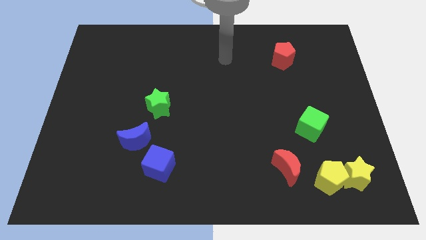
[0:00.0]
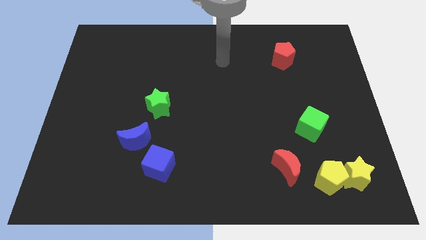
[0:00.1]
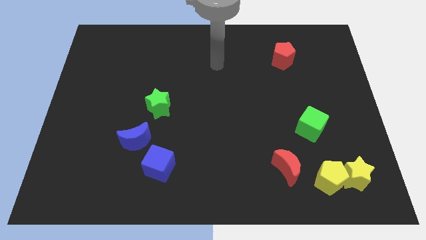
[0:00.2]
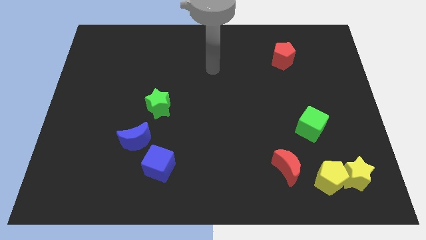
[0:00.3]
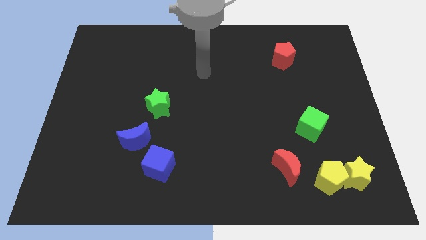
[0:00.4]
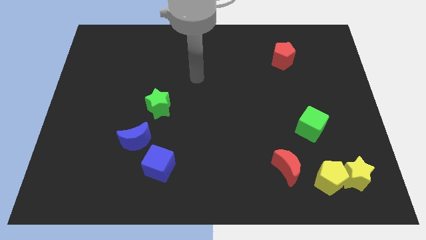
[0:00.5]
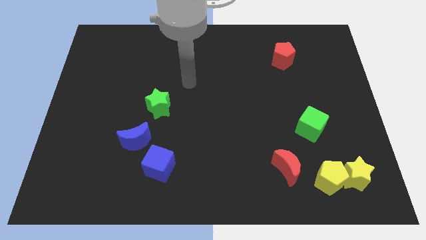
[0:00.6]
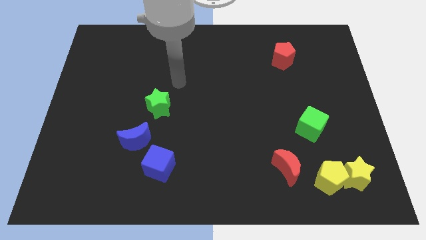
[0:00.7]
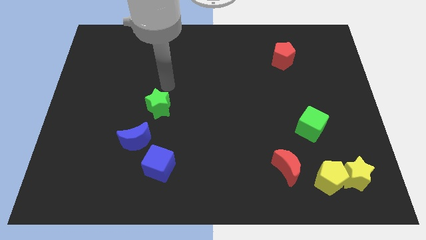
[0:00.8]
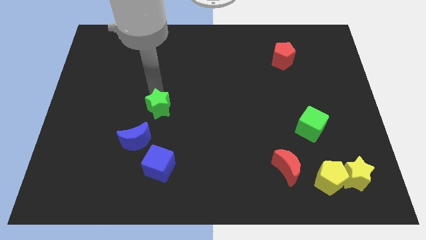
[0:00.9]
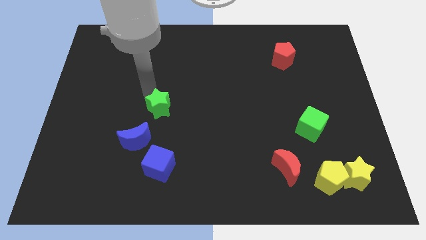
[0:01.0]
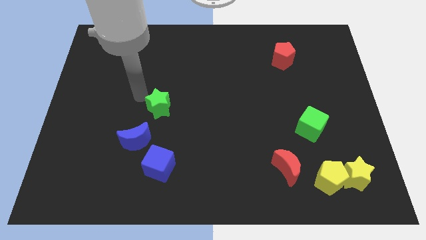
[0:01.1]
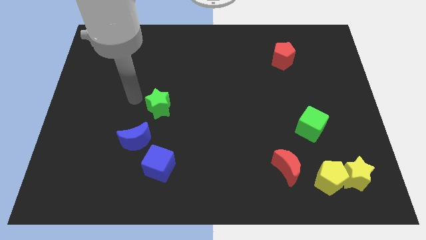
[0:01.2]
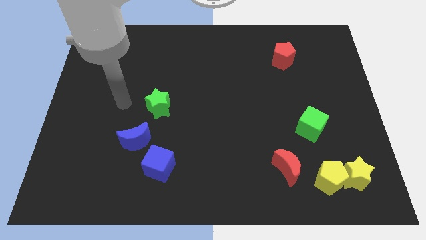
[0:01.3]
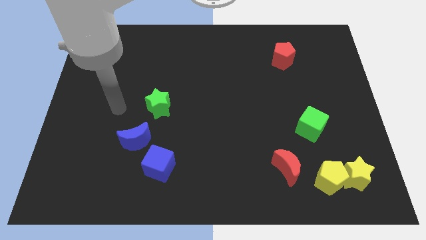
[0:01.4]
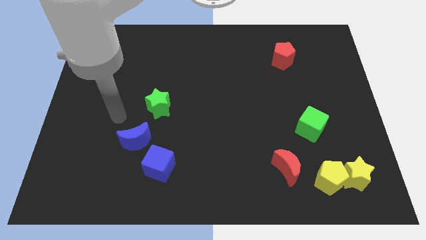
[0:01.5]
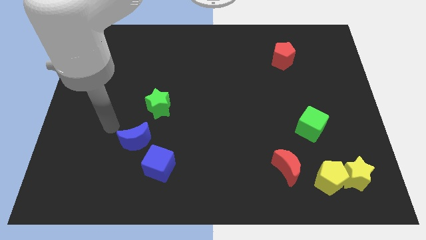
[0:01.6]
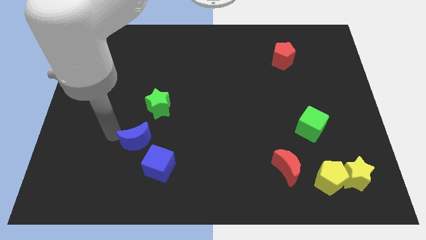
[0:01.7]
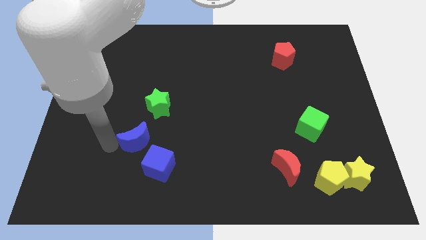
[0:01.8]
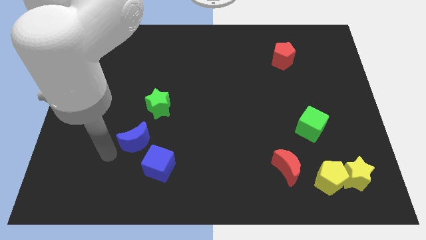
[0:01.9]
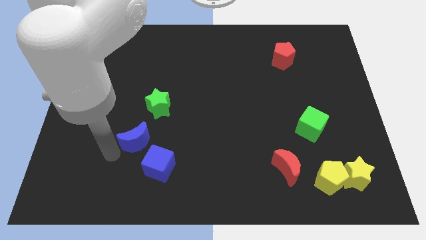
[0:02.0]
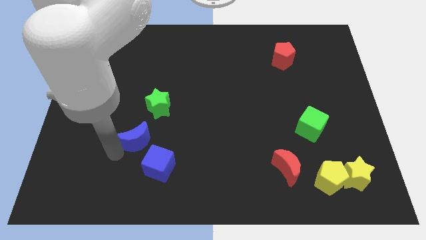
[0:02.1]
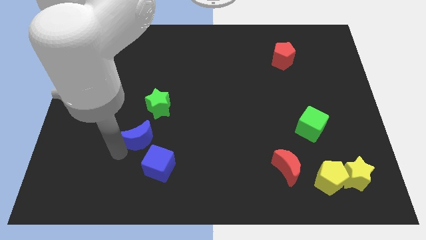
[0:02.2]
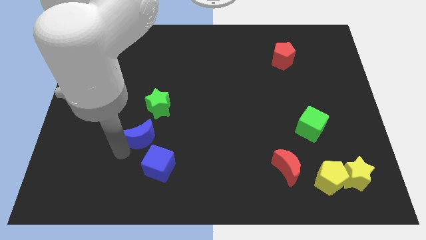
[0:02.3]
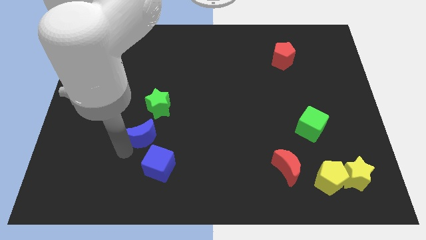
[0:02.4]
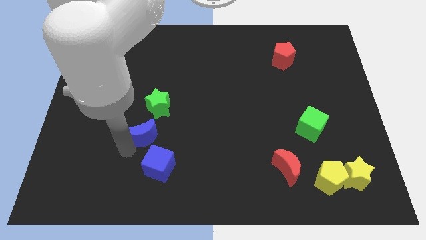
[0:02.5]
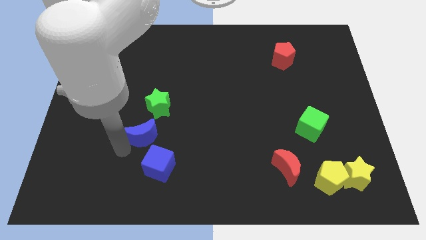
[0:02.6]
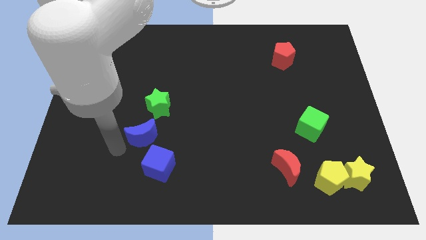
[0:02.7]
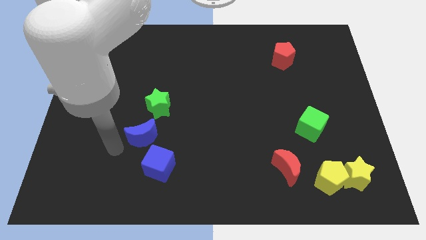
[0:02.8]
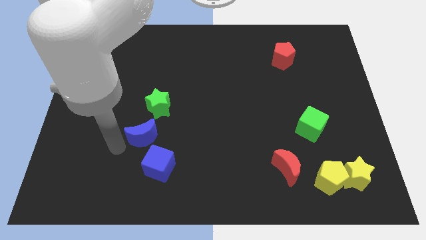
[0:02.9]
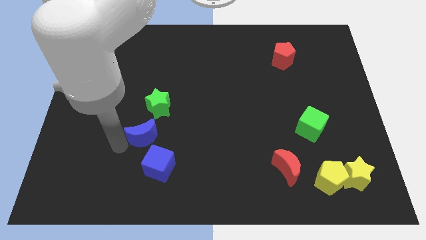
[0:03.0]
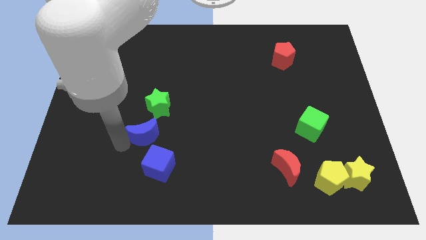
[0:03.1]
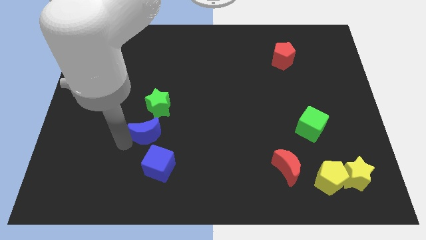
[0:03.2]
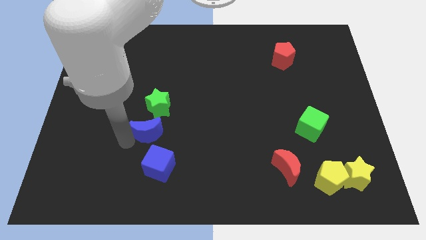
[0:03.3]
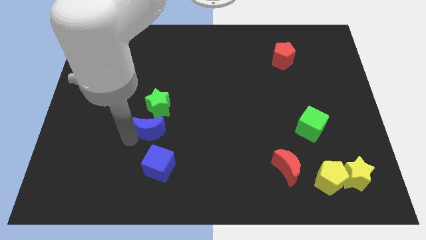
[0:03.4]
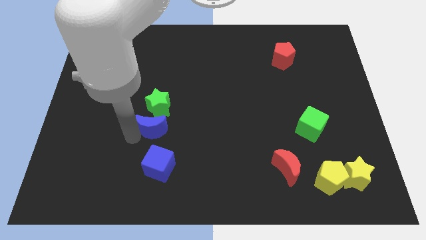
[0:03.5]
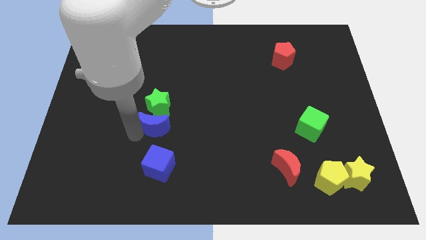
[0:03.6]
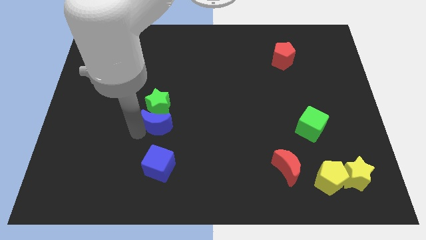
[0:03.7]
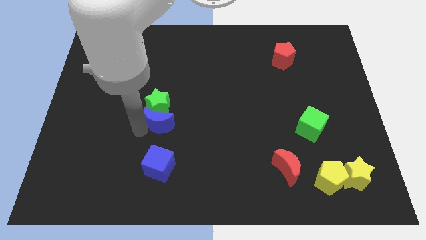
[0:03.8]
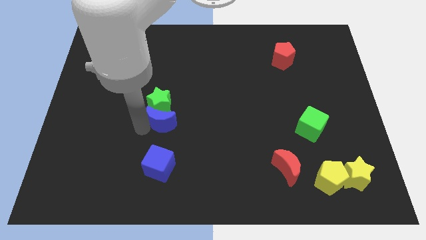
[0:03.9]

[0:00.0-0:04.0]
move the blue moon somewhat up and then to the right

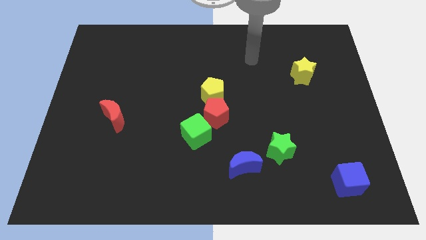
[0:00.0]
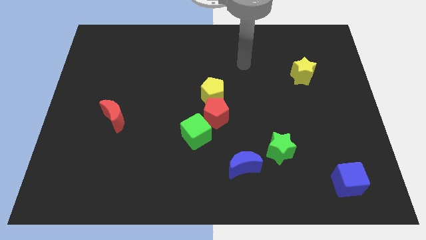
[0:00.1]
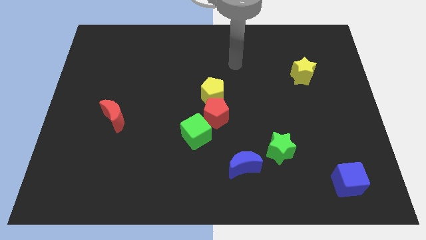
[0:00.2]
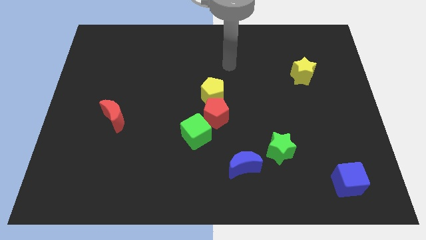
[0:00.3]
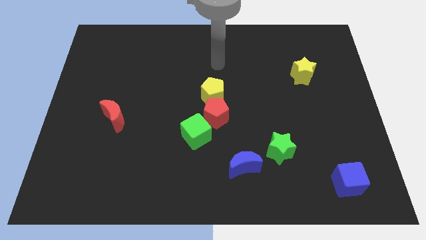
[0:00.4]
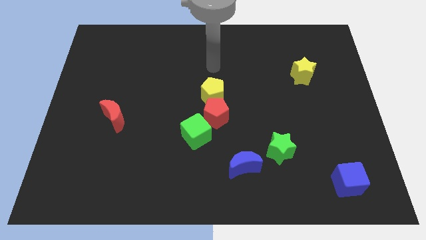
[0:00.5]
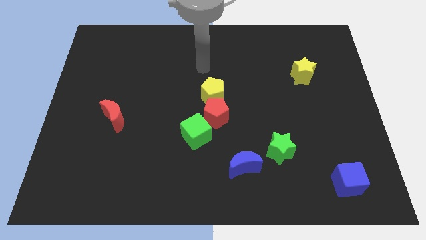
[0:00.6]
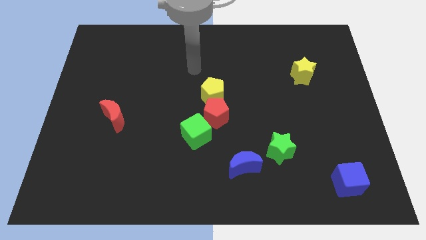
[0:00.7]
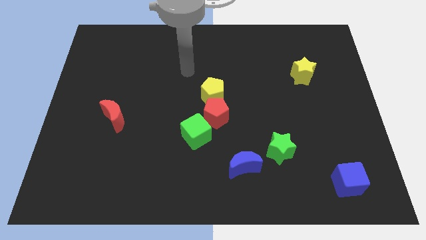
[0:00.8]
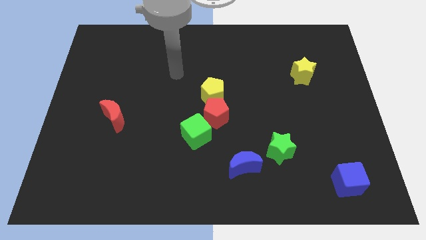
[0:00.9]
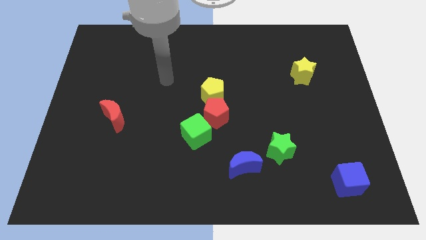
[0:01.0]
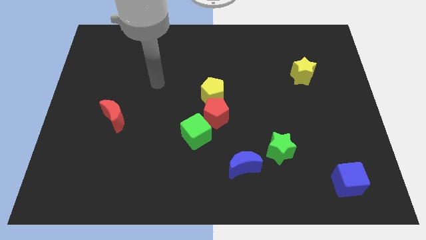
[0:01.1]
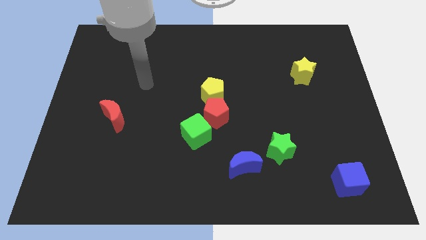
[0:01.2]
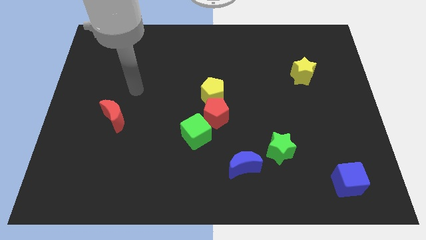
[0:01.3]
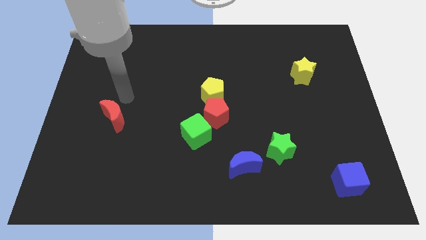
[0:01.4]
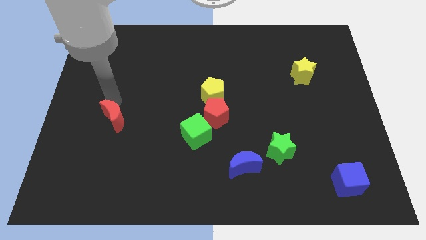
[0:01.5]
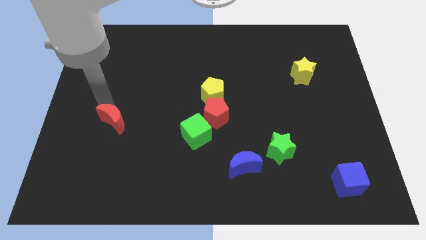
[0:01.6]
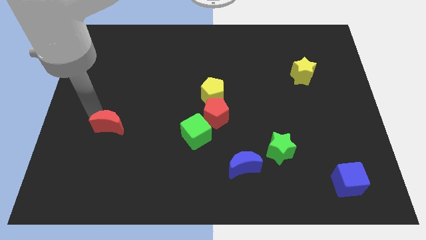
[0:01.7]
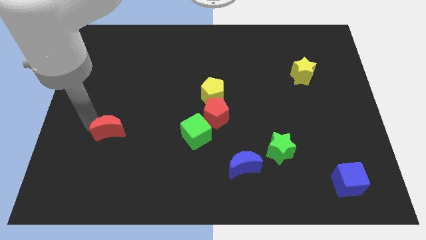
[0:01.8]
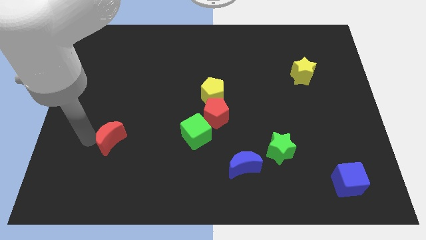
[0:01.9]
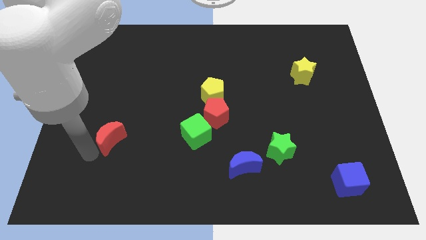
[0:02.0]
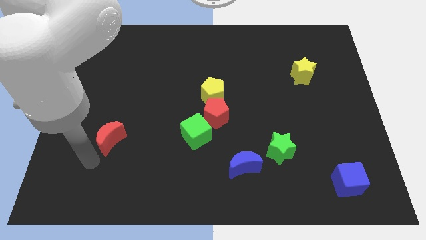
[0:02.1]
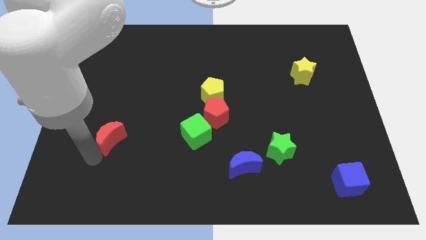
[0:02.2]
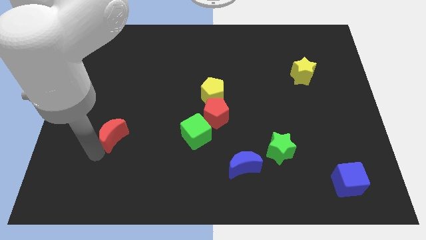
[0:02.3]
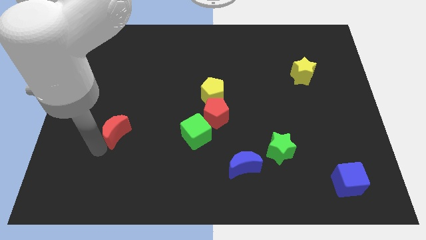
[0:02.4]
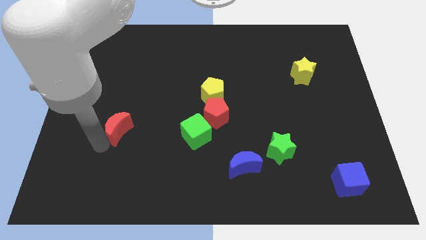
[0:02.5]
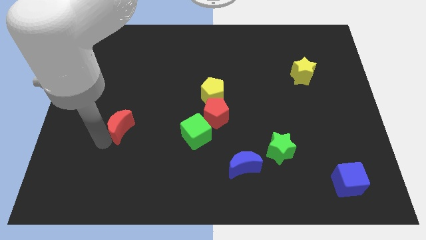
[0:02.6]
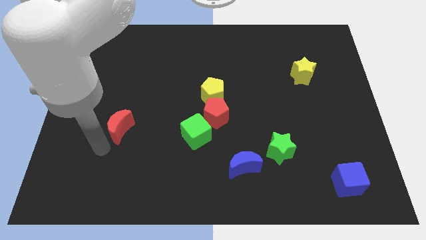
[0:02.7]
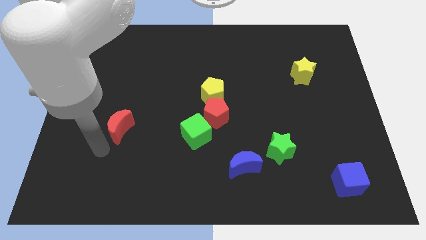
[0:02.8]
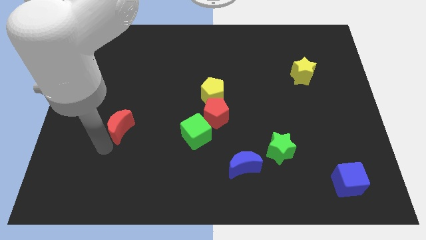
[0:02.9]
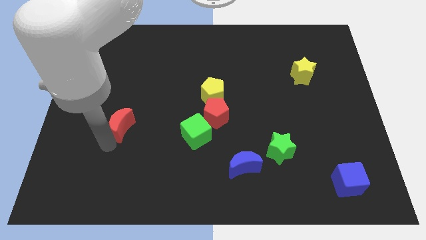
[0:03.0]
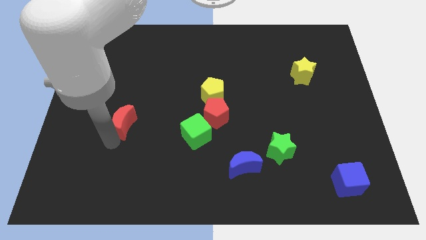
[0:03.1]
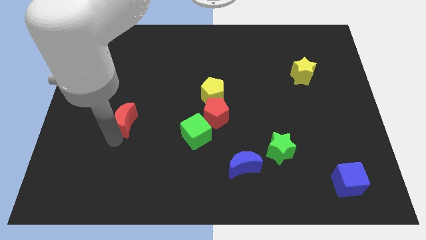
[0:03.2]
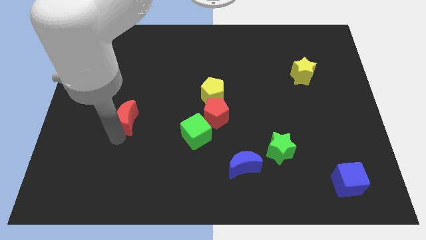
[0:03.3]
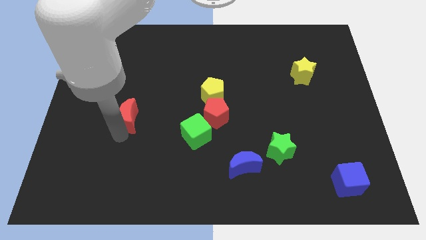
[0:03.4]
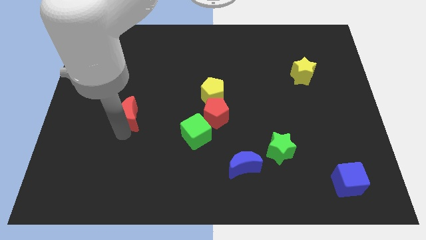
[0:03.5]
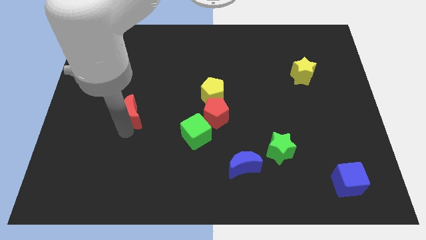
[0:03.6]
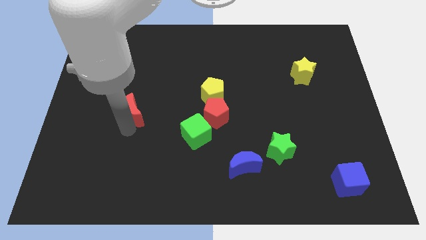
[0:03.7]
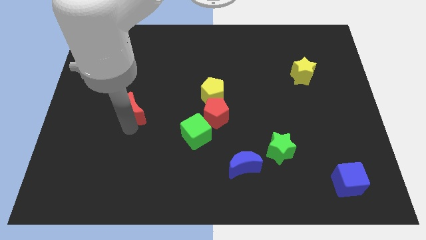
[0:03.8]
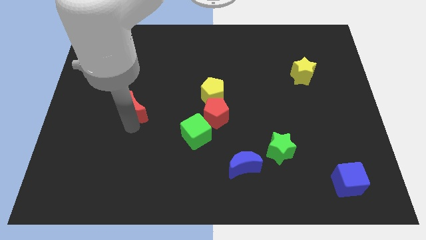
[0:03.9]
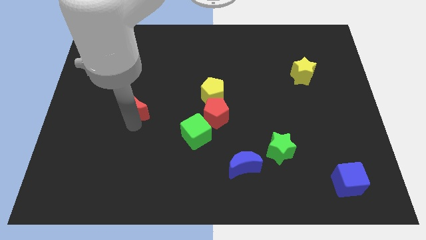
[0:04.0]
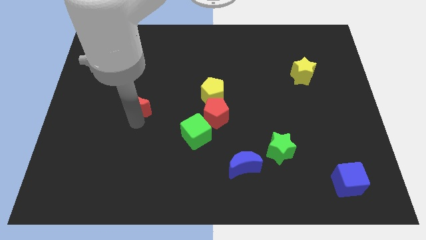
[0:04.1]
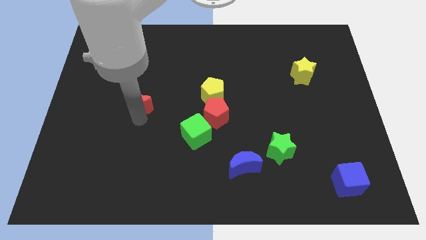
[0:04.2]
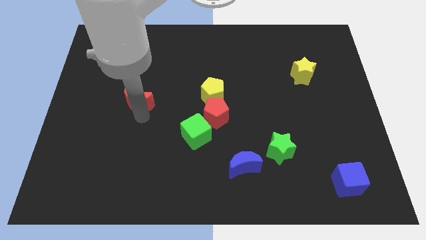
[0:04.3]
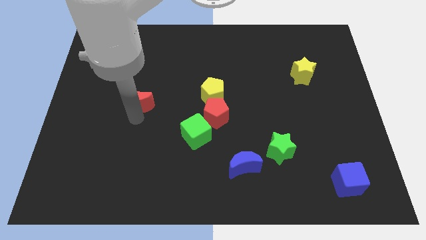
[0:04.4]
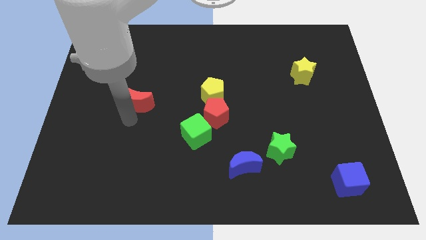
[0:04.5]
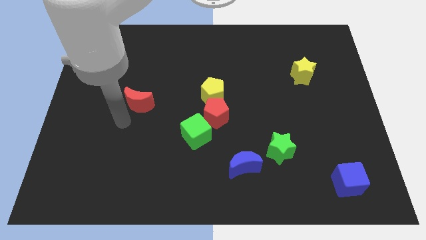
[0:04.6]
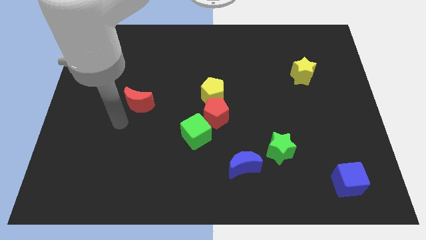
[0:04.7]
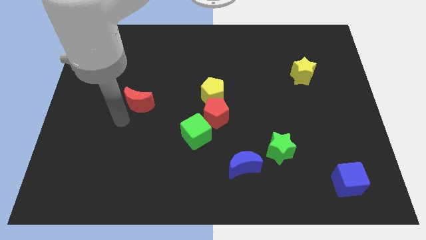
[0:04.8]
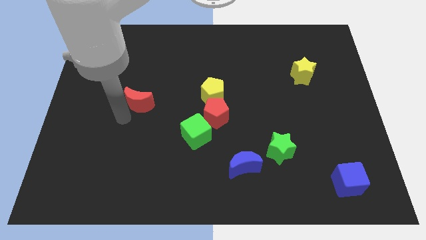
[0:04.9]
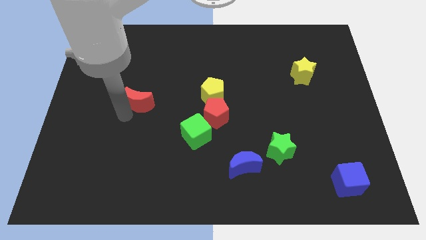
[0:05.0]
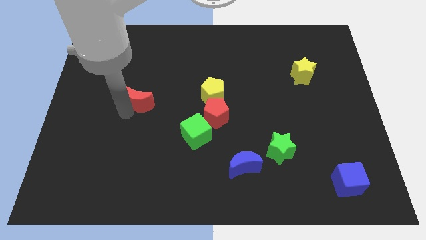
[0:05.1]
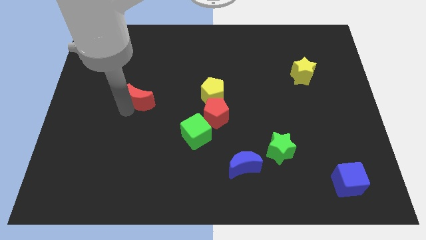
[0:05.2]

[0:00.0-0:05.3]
slightly slide the red moon upwards and to the right diagonally
